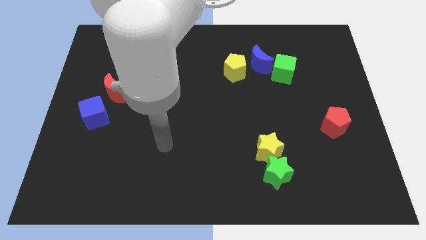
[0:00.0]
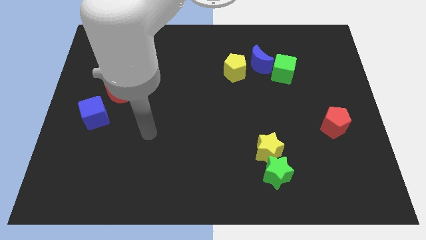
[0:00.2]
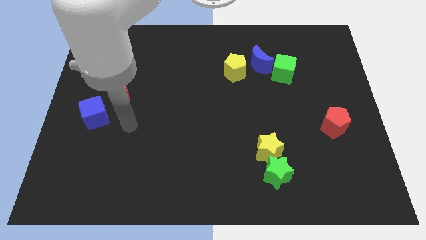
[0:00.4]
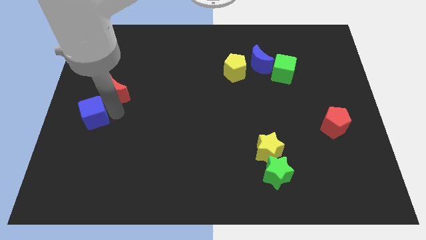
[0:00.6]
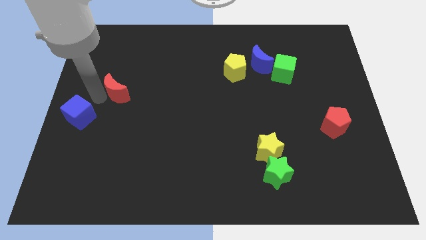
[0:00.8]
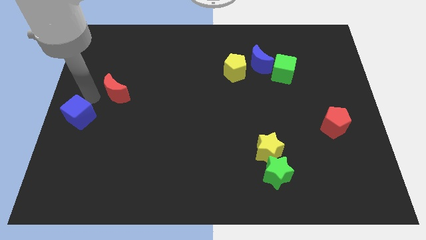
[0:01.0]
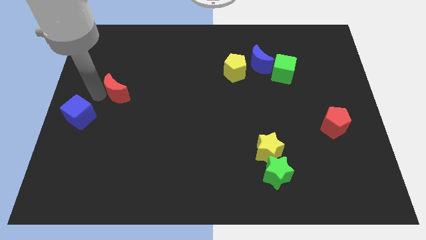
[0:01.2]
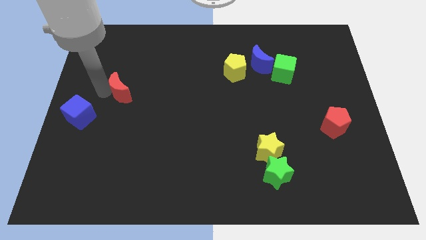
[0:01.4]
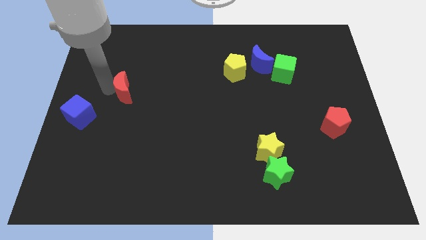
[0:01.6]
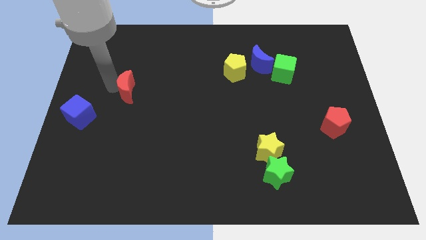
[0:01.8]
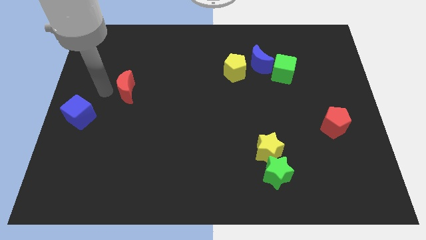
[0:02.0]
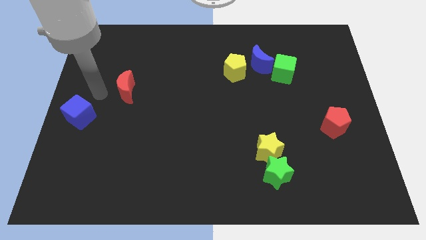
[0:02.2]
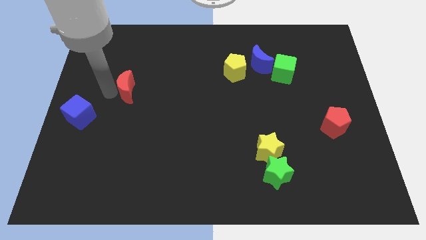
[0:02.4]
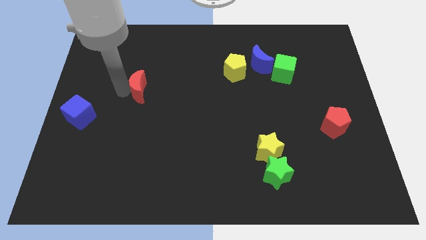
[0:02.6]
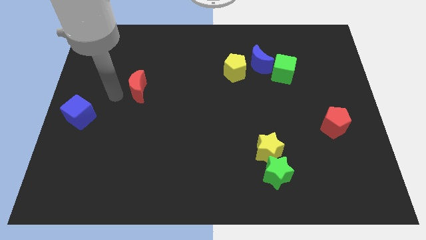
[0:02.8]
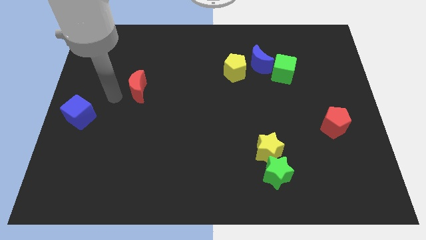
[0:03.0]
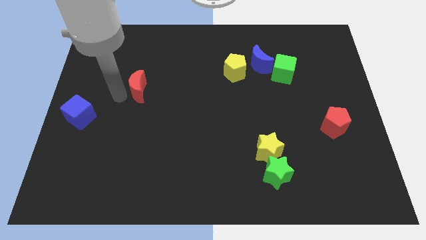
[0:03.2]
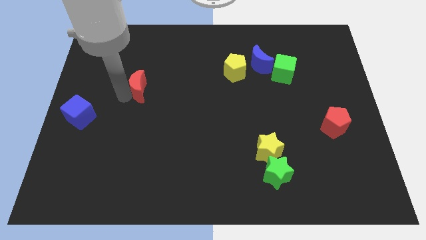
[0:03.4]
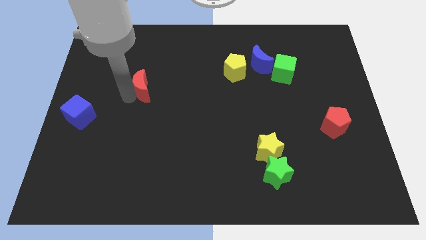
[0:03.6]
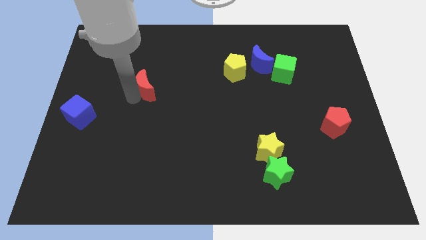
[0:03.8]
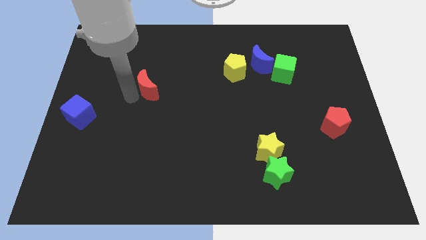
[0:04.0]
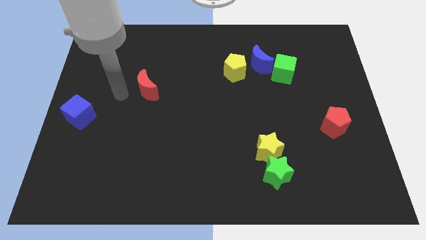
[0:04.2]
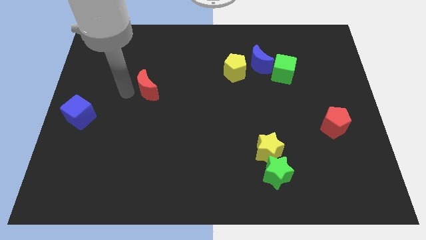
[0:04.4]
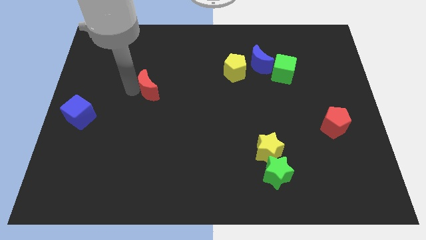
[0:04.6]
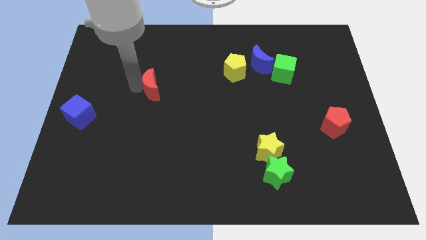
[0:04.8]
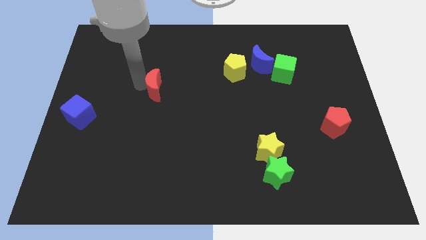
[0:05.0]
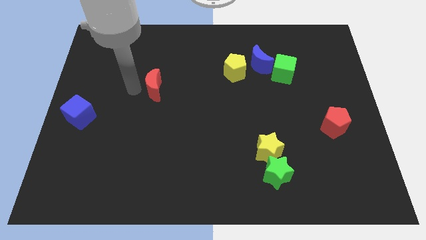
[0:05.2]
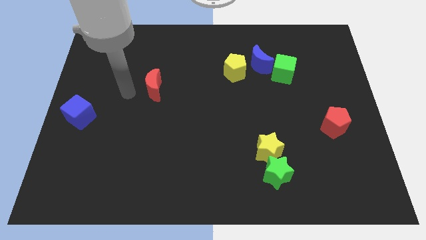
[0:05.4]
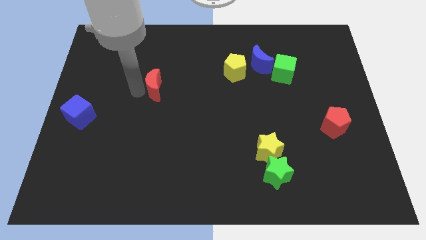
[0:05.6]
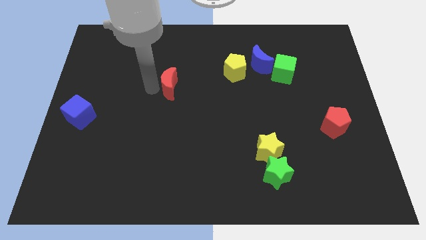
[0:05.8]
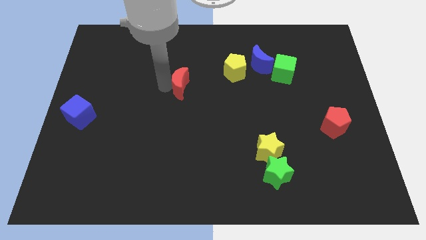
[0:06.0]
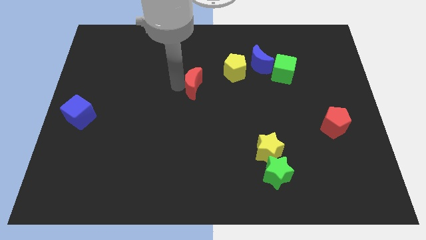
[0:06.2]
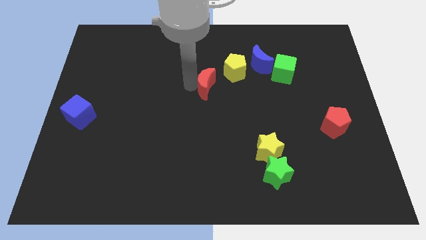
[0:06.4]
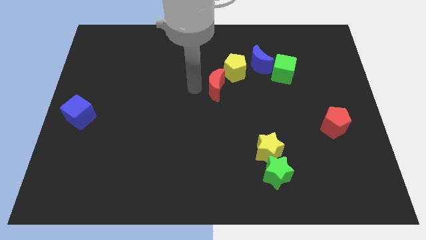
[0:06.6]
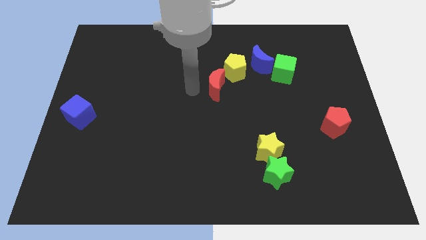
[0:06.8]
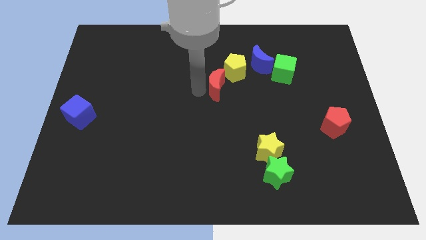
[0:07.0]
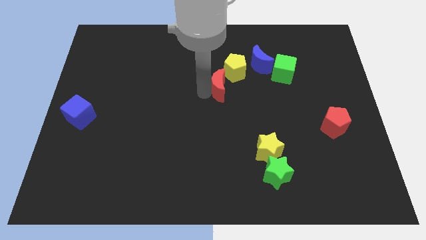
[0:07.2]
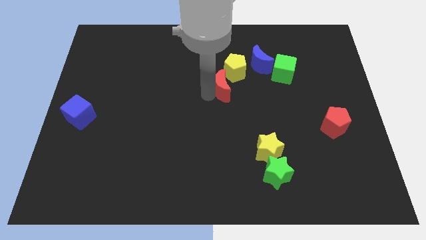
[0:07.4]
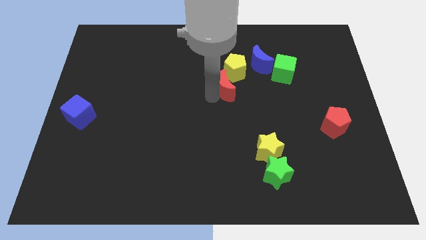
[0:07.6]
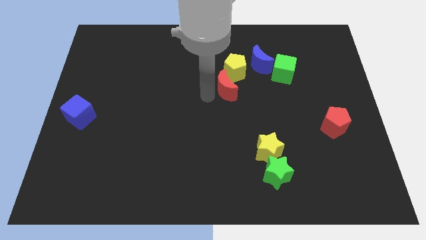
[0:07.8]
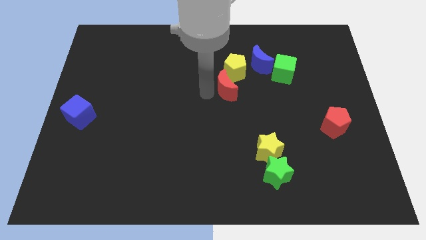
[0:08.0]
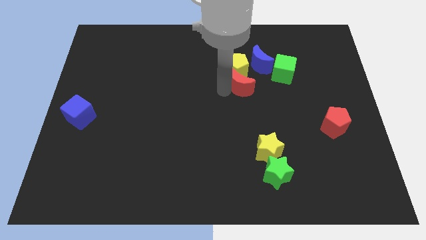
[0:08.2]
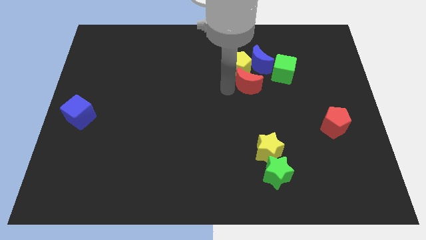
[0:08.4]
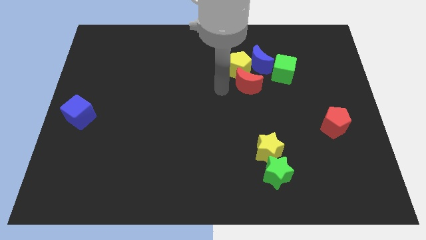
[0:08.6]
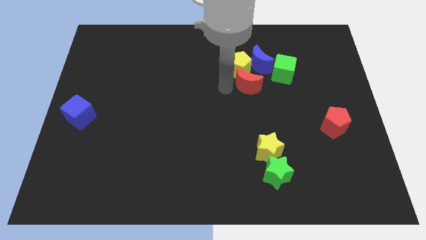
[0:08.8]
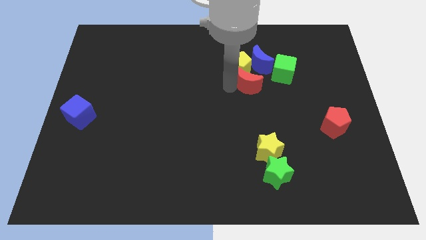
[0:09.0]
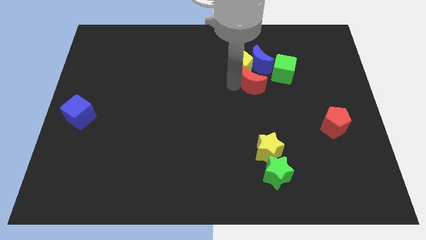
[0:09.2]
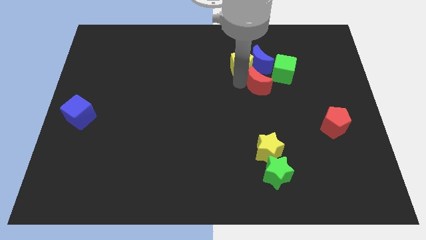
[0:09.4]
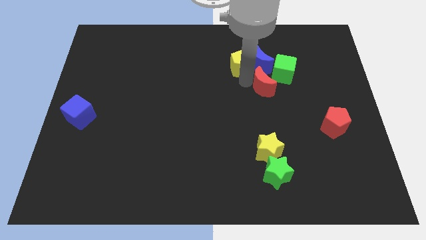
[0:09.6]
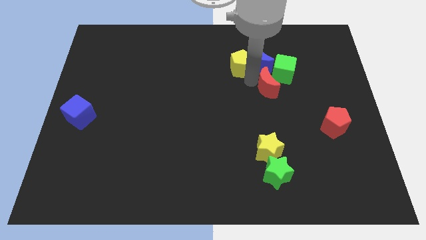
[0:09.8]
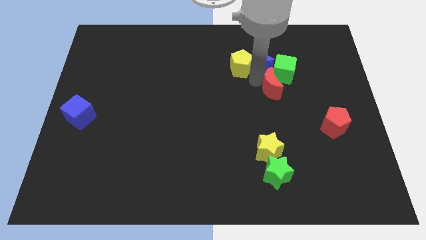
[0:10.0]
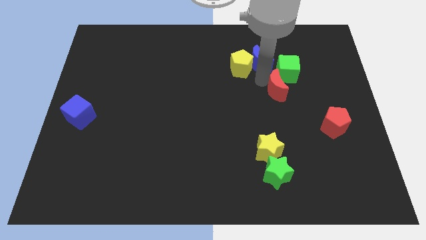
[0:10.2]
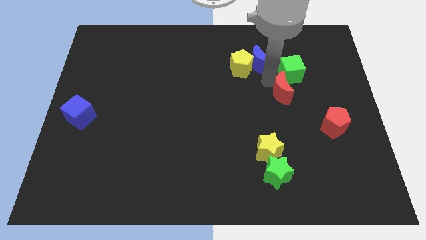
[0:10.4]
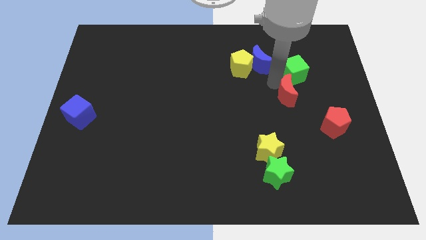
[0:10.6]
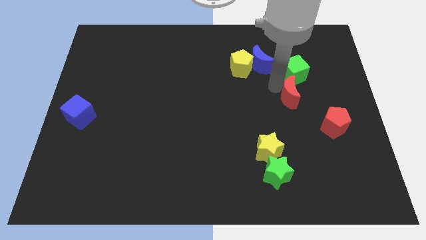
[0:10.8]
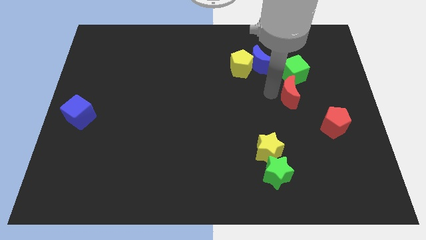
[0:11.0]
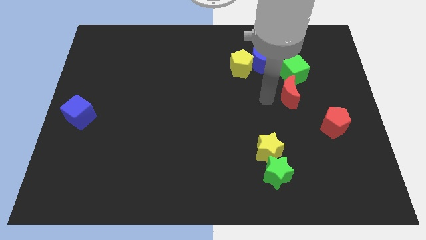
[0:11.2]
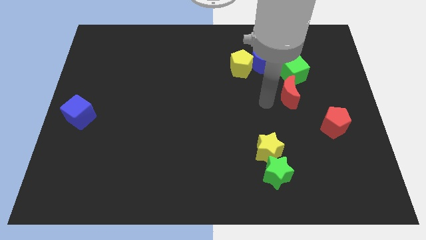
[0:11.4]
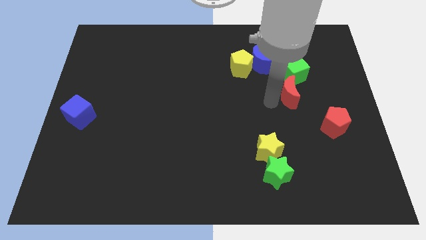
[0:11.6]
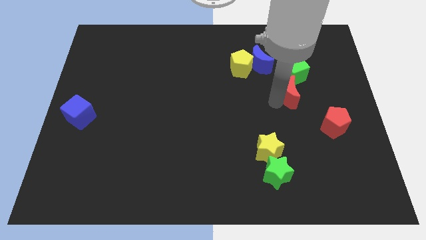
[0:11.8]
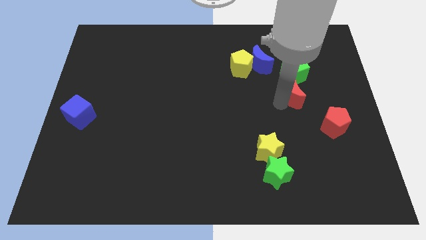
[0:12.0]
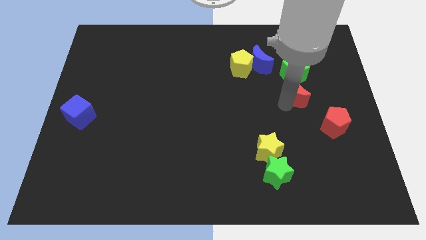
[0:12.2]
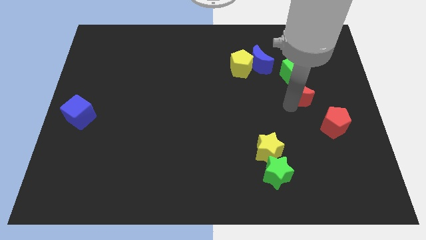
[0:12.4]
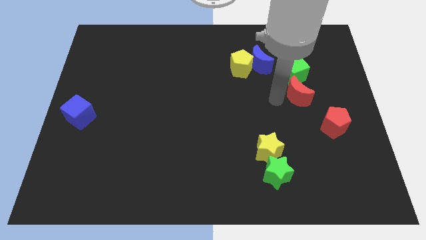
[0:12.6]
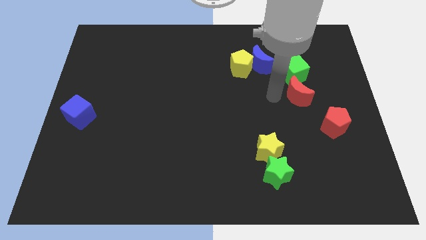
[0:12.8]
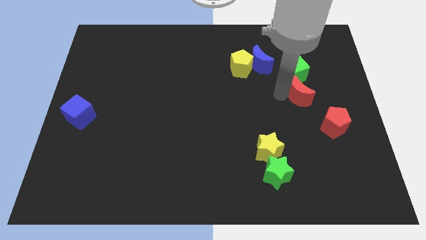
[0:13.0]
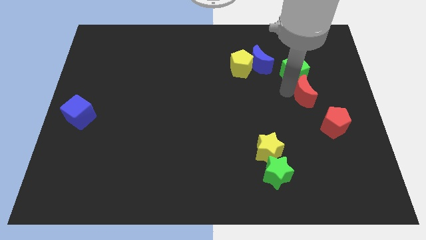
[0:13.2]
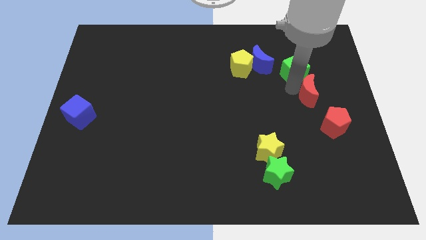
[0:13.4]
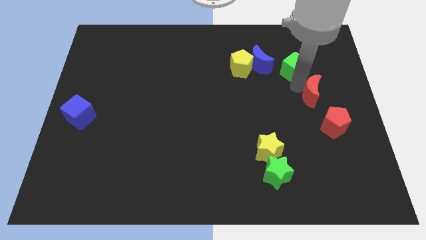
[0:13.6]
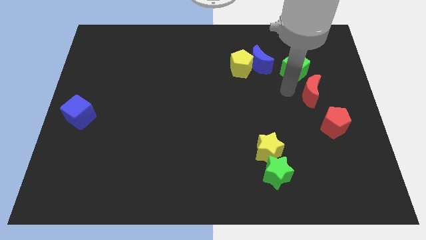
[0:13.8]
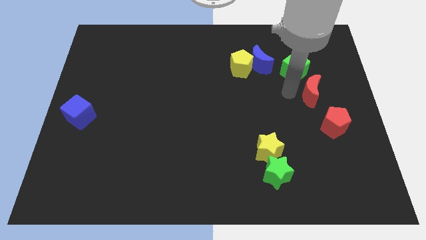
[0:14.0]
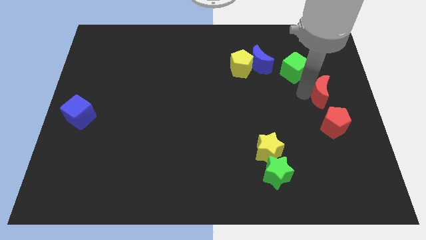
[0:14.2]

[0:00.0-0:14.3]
move the red moon to the right side of the board
